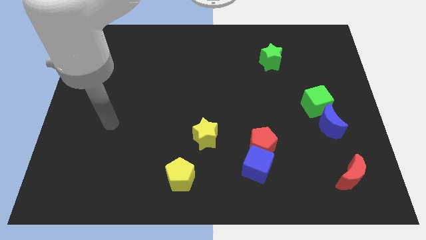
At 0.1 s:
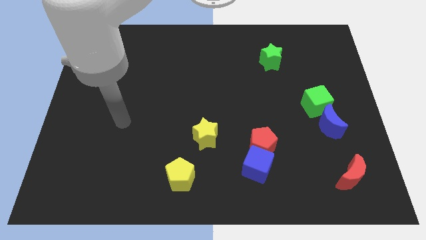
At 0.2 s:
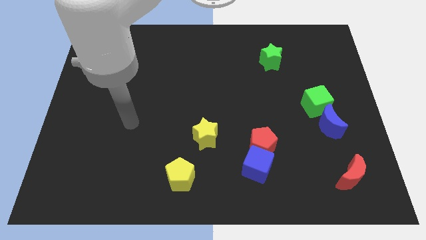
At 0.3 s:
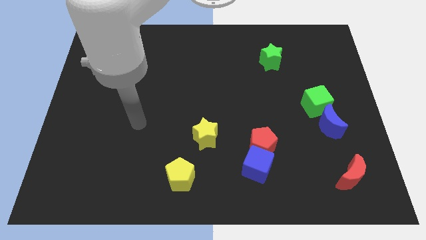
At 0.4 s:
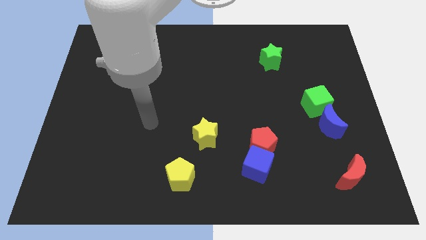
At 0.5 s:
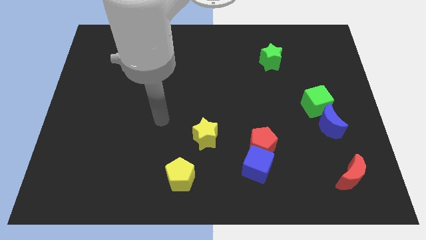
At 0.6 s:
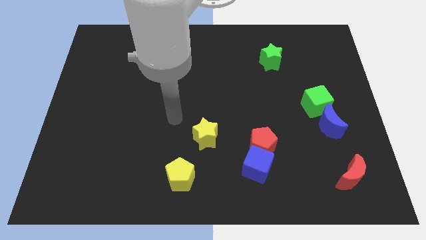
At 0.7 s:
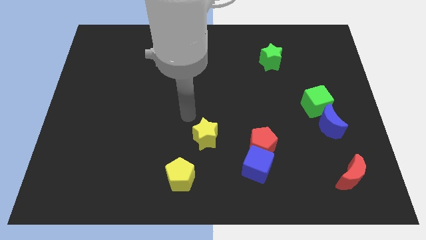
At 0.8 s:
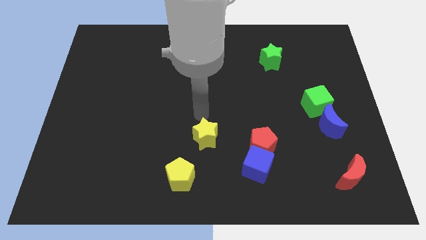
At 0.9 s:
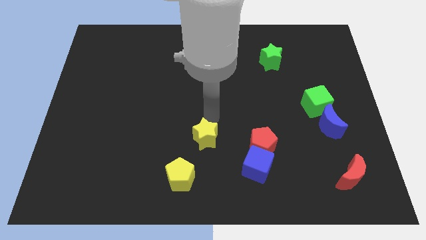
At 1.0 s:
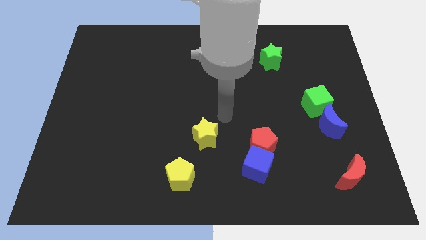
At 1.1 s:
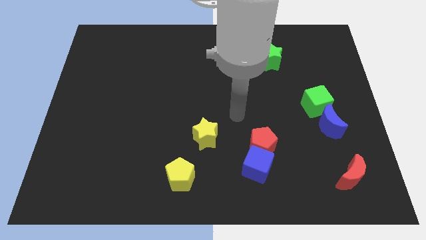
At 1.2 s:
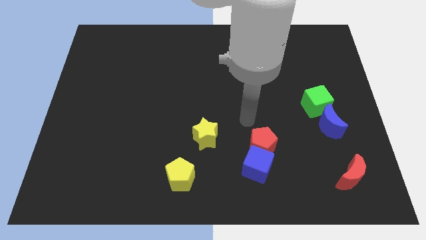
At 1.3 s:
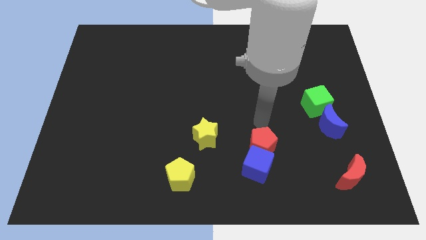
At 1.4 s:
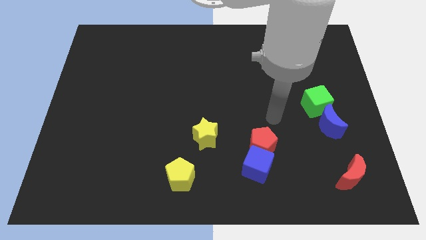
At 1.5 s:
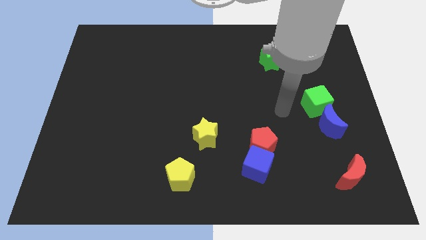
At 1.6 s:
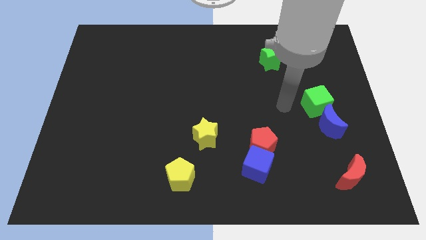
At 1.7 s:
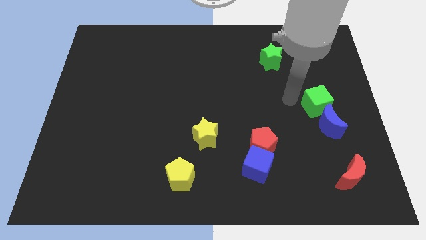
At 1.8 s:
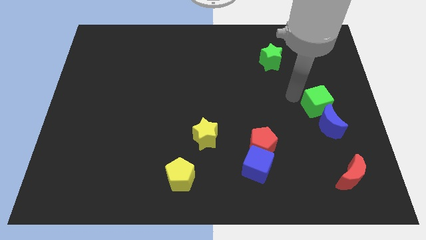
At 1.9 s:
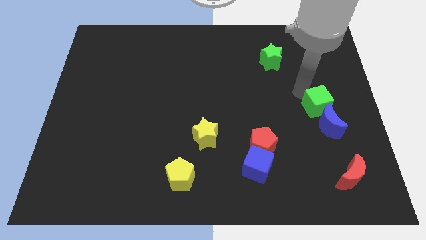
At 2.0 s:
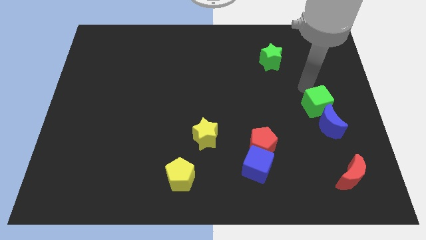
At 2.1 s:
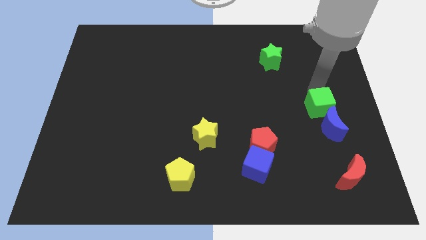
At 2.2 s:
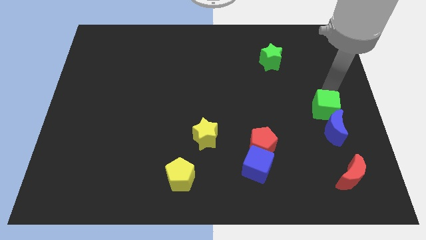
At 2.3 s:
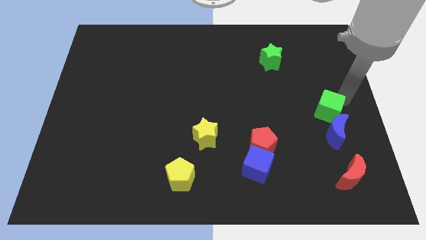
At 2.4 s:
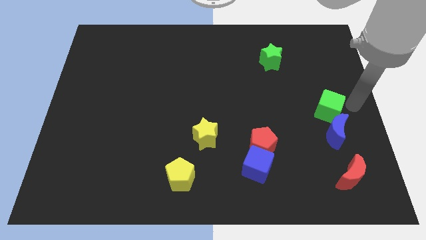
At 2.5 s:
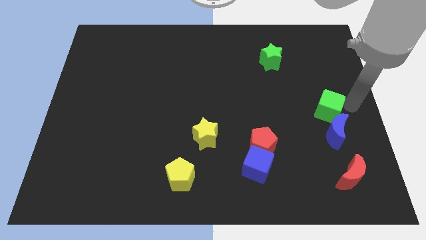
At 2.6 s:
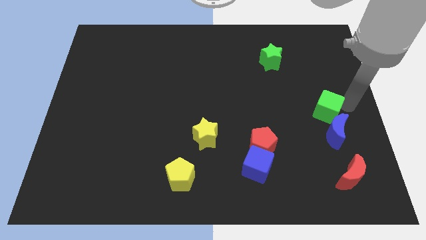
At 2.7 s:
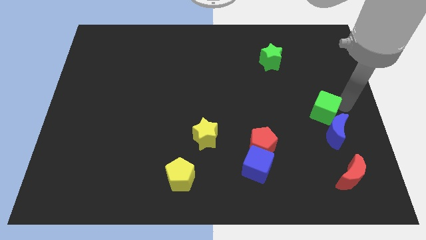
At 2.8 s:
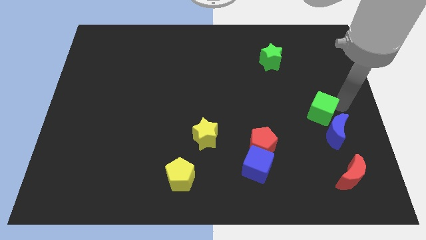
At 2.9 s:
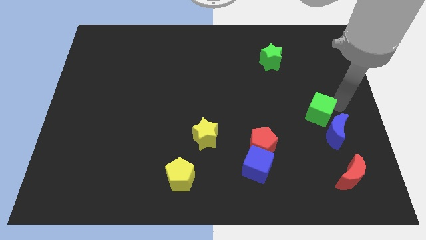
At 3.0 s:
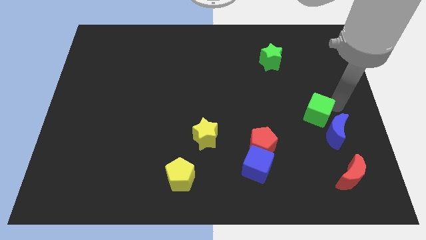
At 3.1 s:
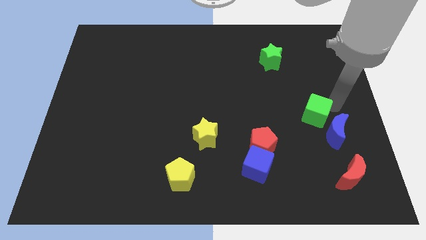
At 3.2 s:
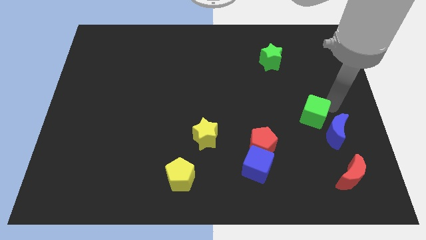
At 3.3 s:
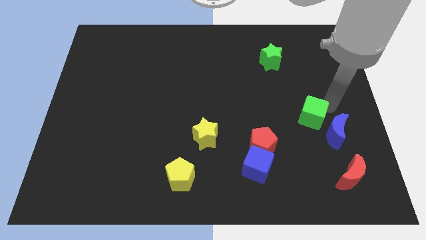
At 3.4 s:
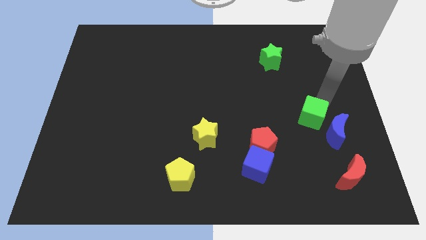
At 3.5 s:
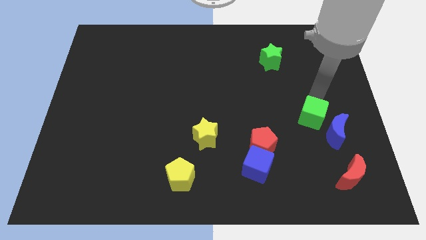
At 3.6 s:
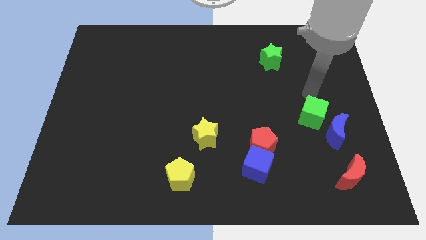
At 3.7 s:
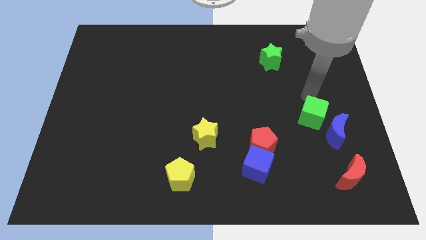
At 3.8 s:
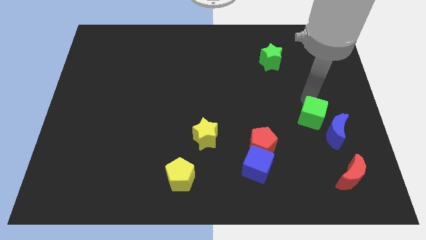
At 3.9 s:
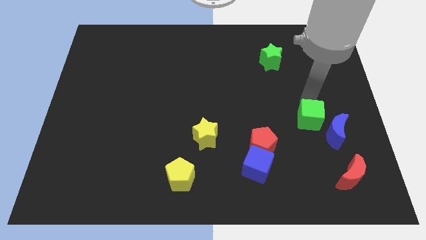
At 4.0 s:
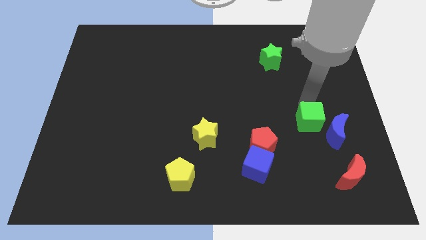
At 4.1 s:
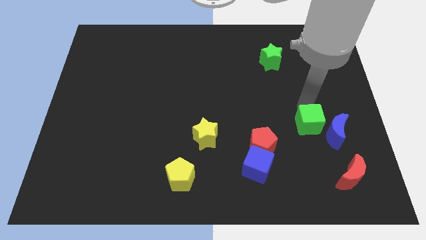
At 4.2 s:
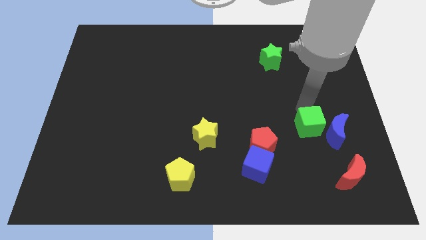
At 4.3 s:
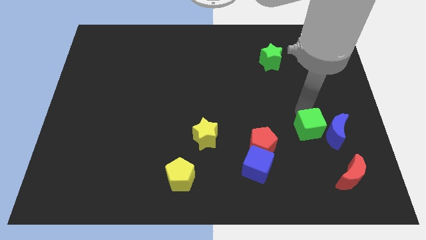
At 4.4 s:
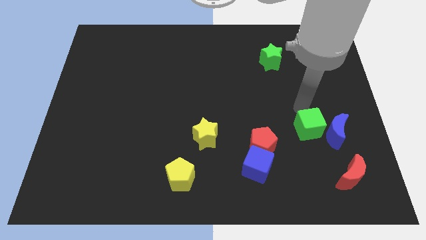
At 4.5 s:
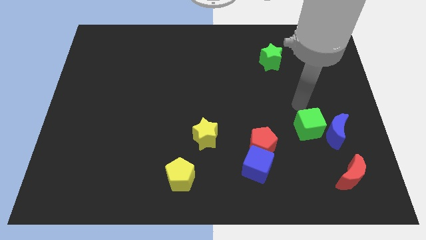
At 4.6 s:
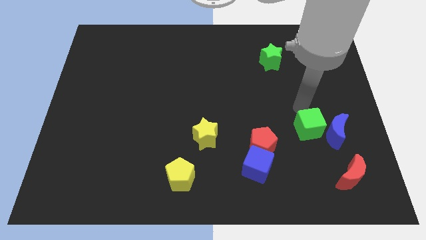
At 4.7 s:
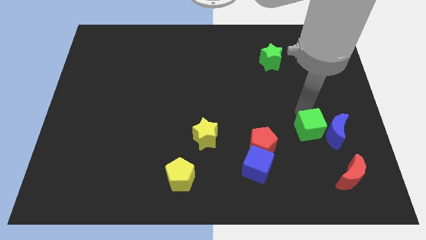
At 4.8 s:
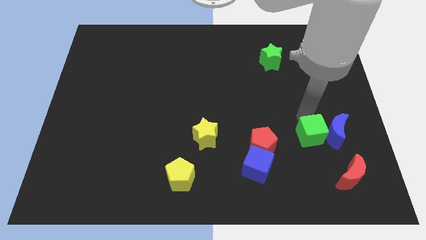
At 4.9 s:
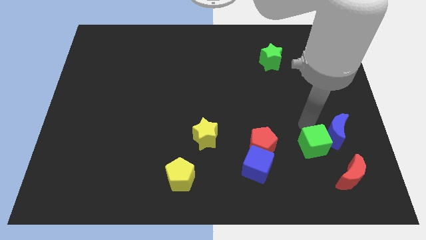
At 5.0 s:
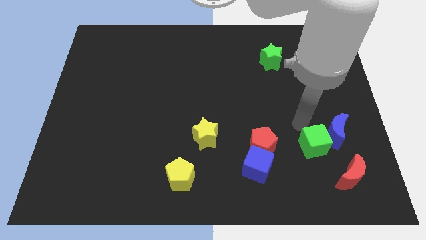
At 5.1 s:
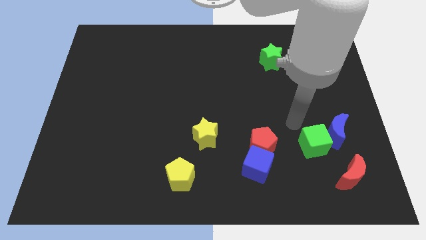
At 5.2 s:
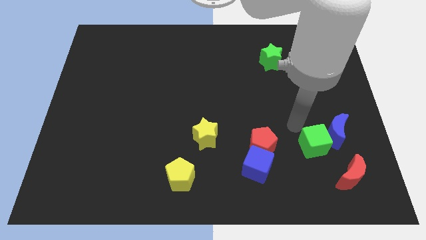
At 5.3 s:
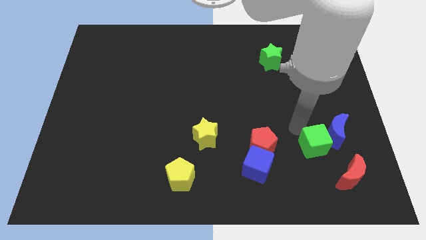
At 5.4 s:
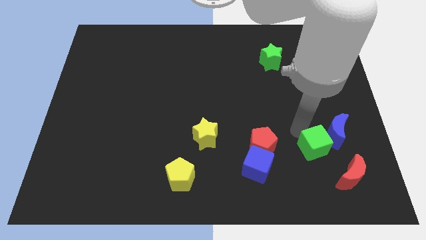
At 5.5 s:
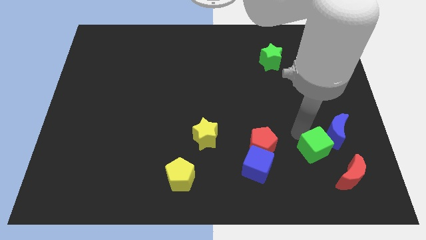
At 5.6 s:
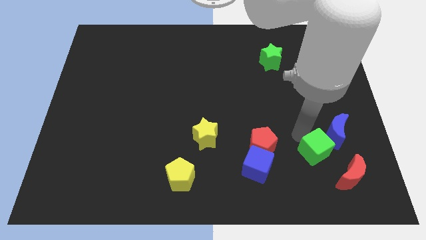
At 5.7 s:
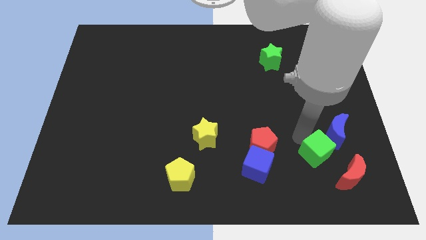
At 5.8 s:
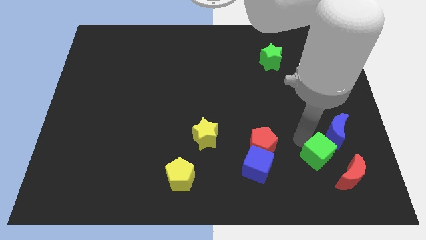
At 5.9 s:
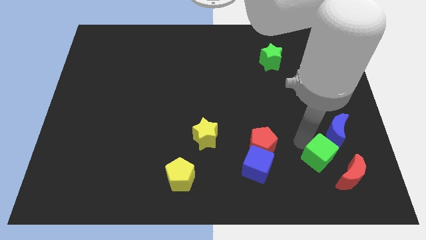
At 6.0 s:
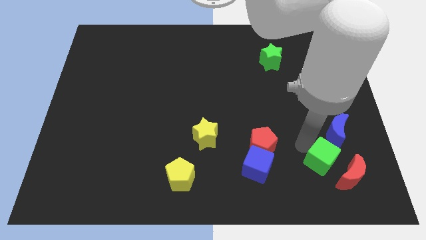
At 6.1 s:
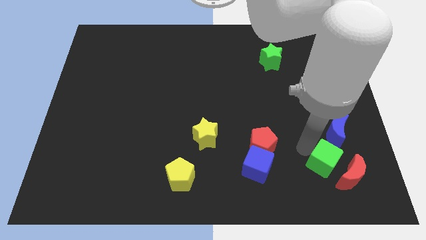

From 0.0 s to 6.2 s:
slide the green cube to the red moon

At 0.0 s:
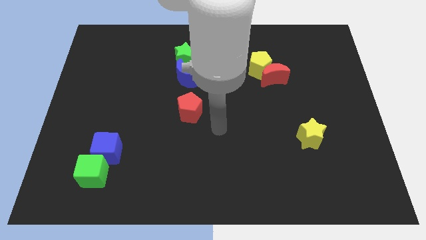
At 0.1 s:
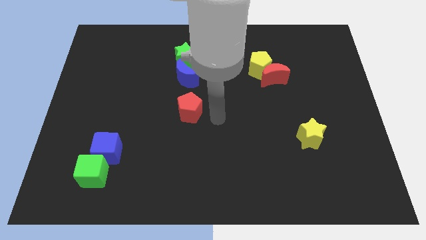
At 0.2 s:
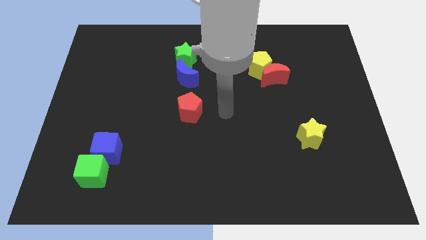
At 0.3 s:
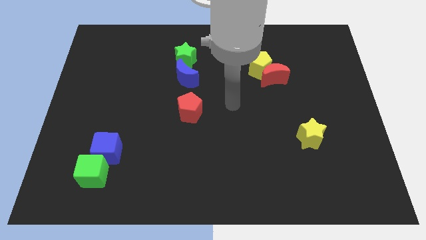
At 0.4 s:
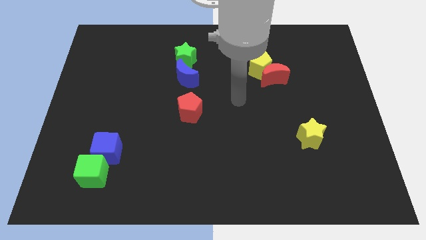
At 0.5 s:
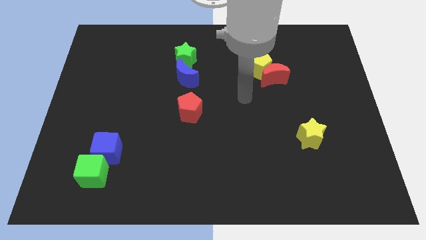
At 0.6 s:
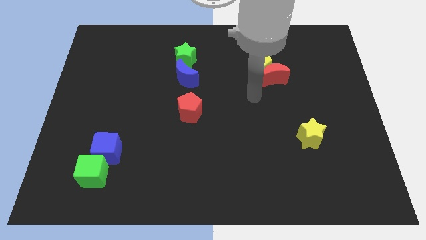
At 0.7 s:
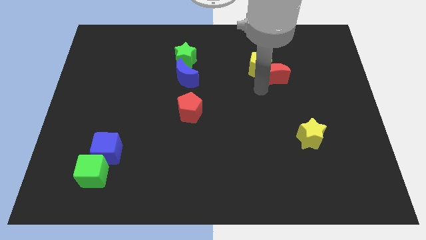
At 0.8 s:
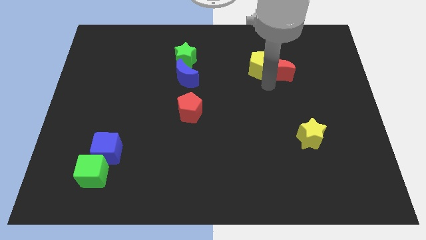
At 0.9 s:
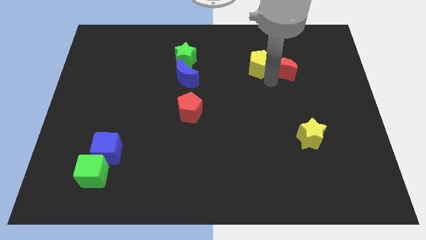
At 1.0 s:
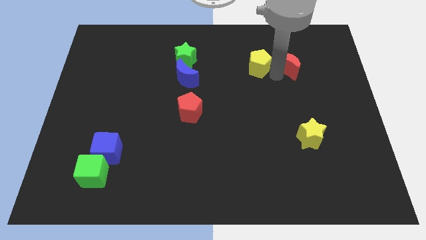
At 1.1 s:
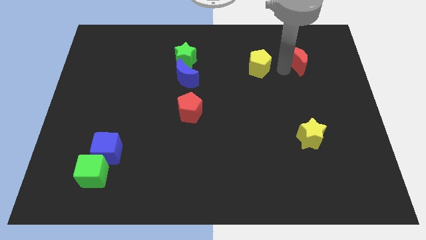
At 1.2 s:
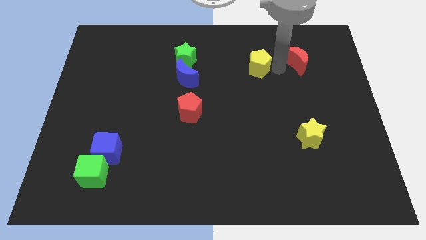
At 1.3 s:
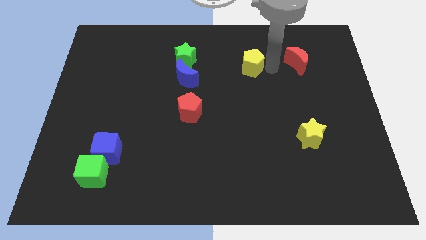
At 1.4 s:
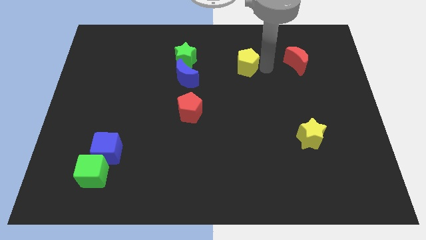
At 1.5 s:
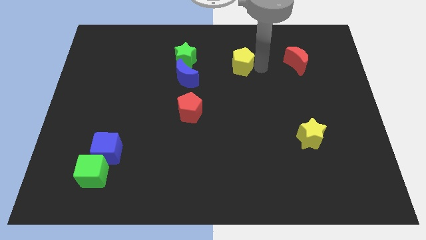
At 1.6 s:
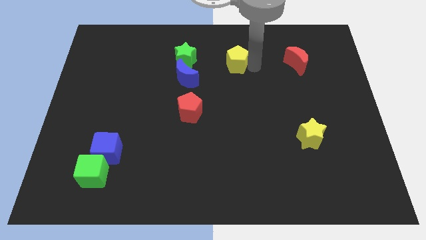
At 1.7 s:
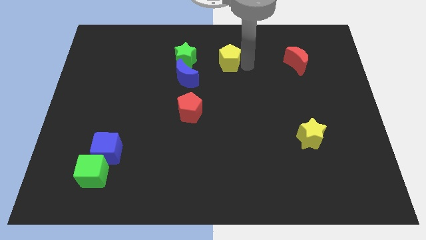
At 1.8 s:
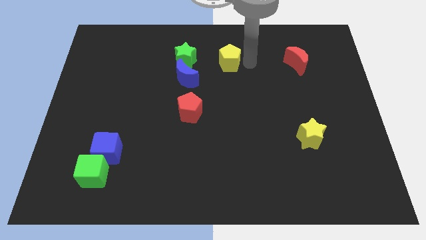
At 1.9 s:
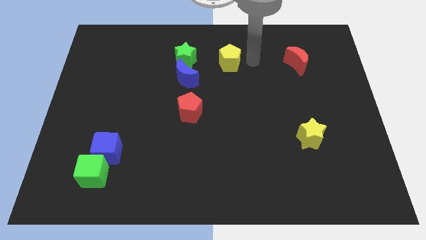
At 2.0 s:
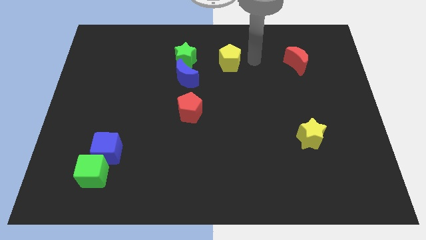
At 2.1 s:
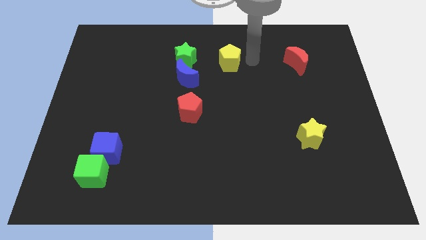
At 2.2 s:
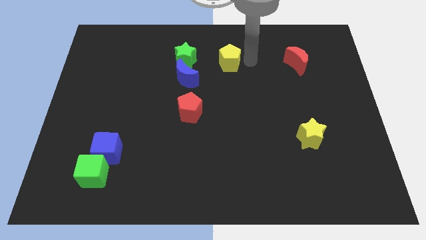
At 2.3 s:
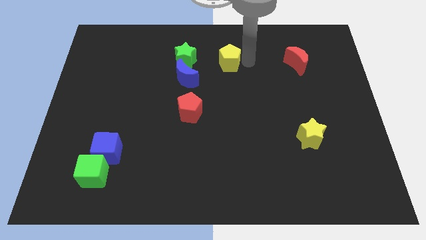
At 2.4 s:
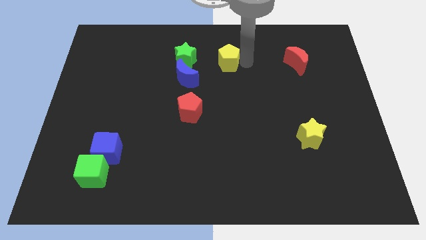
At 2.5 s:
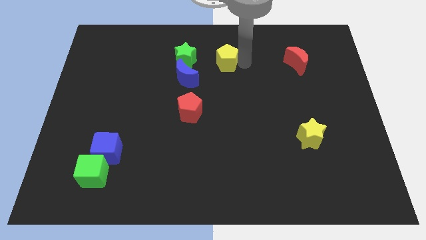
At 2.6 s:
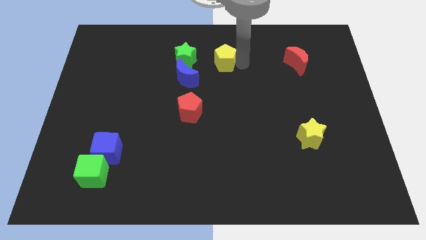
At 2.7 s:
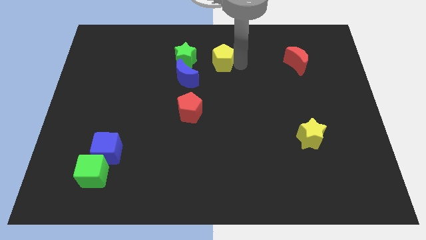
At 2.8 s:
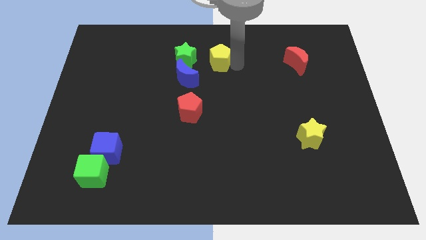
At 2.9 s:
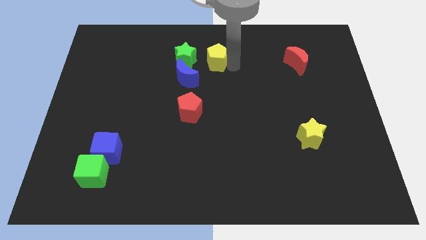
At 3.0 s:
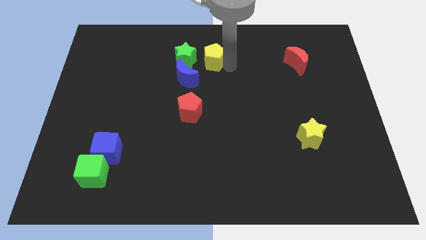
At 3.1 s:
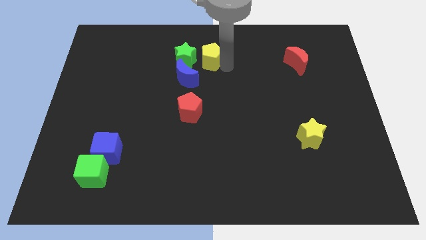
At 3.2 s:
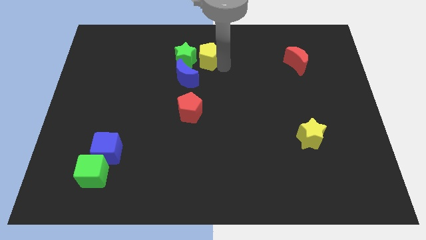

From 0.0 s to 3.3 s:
move the yellow pentagon towards the green star
